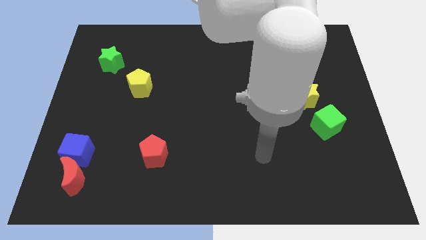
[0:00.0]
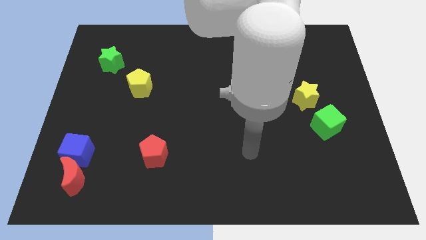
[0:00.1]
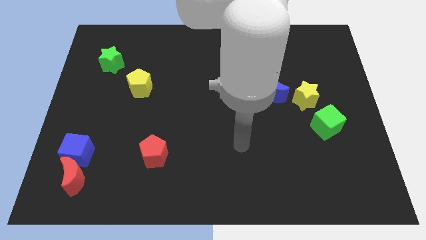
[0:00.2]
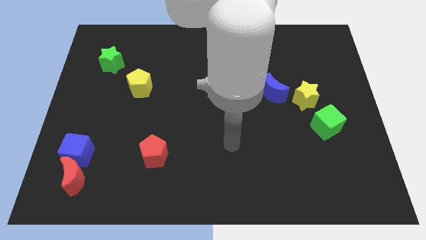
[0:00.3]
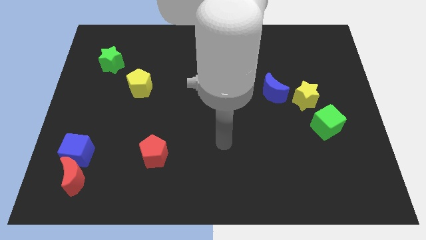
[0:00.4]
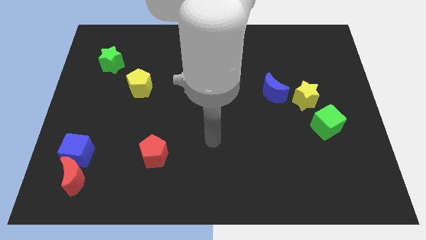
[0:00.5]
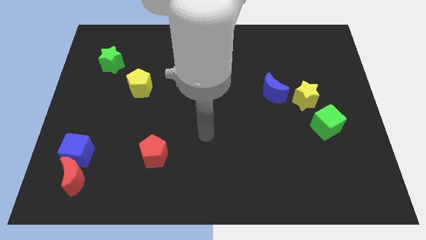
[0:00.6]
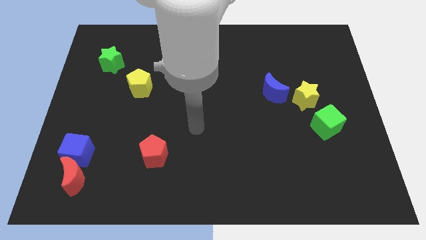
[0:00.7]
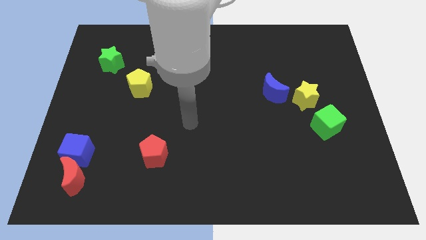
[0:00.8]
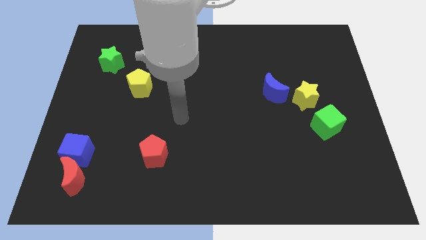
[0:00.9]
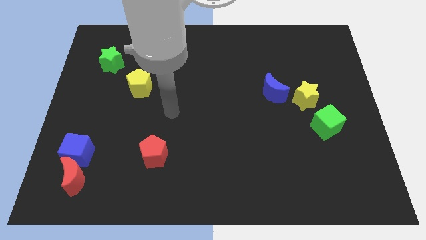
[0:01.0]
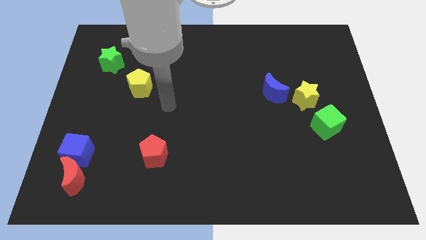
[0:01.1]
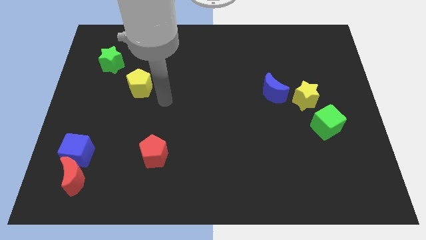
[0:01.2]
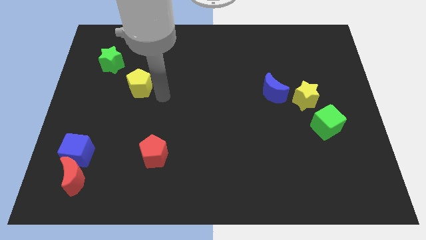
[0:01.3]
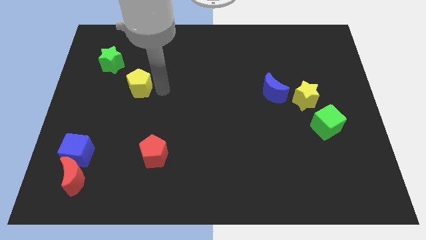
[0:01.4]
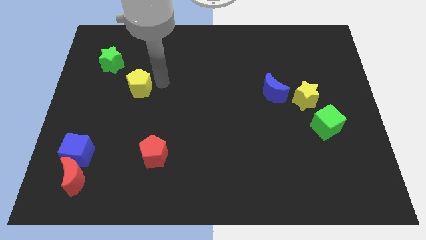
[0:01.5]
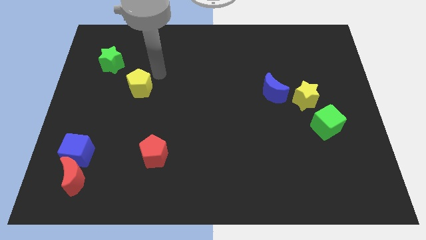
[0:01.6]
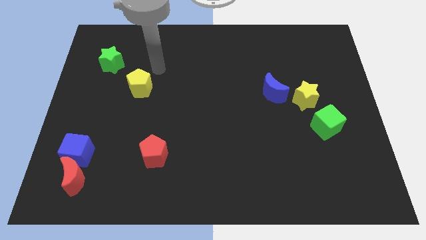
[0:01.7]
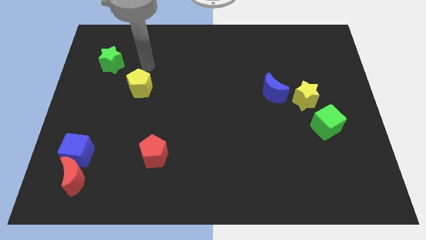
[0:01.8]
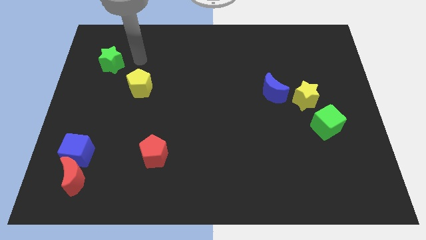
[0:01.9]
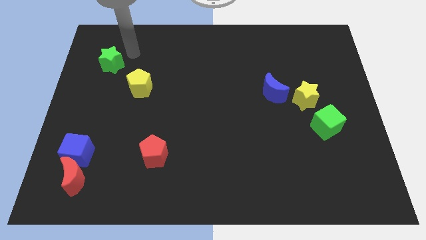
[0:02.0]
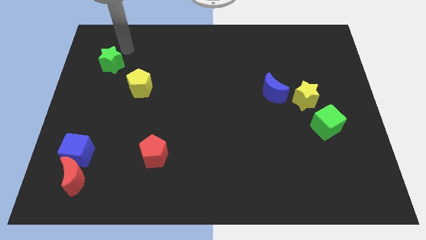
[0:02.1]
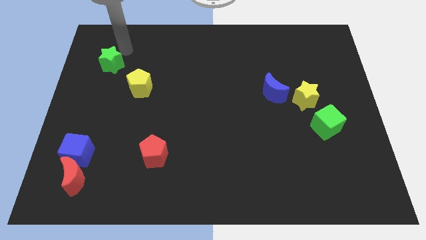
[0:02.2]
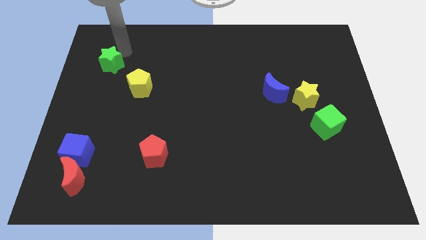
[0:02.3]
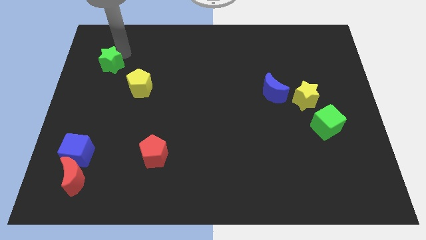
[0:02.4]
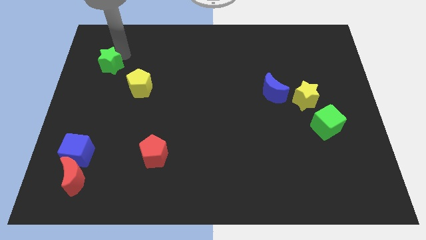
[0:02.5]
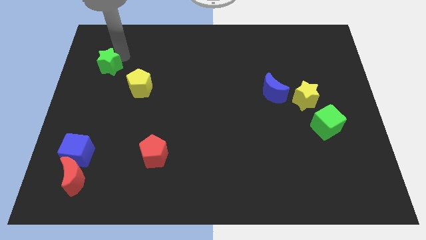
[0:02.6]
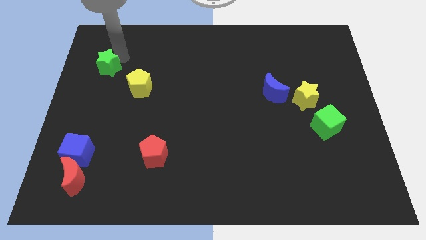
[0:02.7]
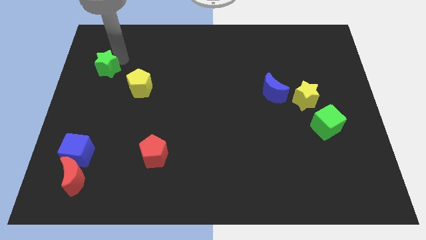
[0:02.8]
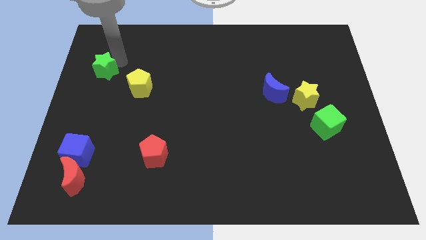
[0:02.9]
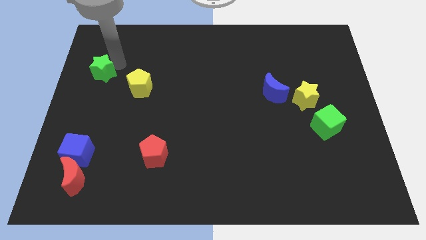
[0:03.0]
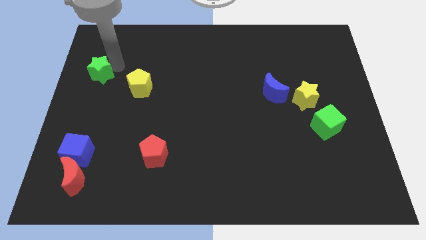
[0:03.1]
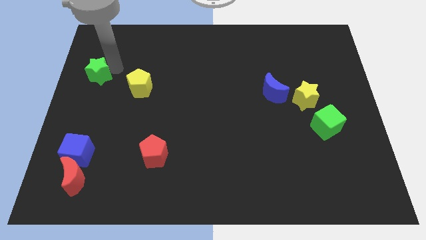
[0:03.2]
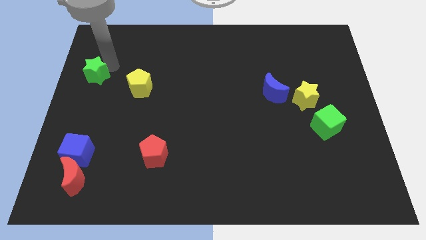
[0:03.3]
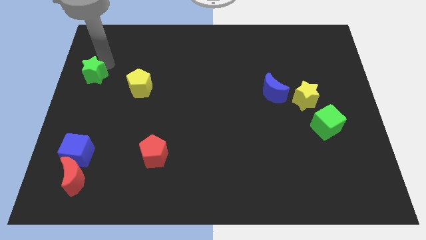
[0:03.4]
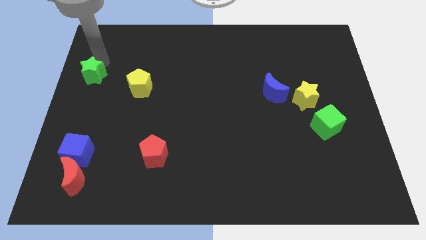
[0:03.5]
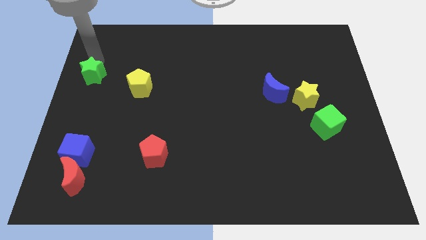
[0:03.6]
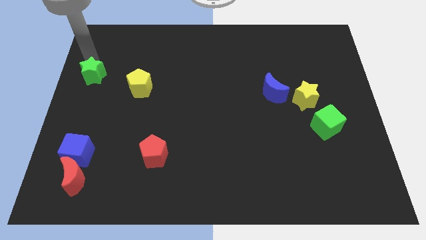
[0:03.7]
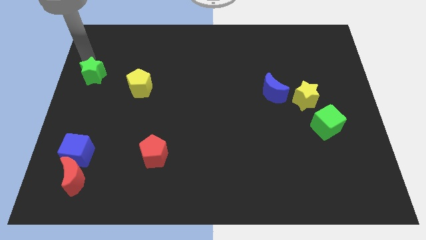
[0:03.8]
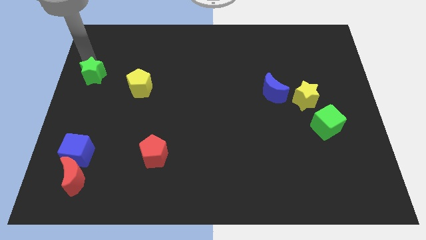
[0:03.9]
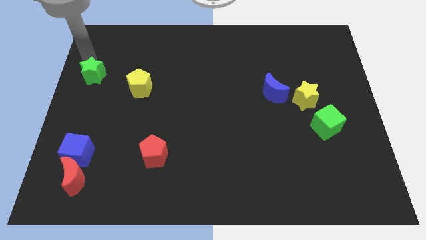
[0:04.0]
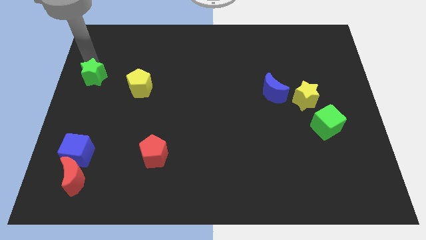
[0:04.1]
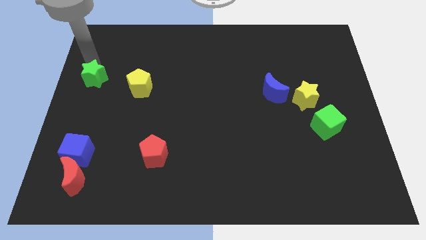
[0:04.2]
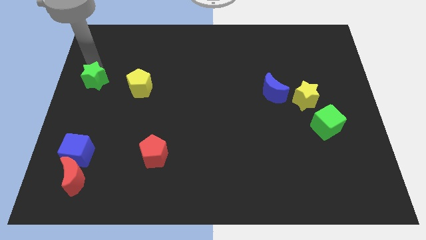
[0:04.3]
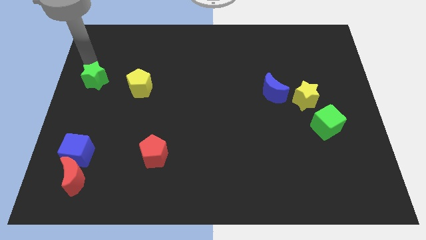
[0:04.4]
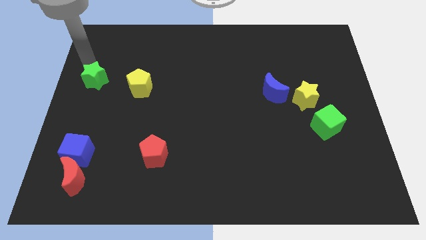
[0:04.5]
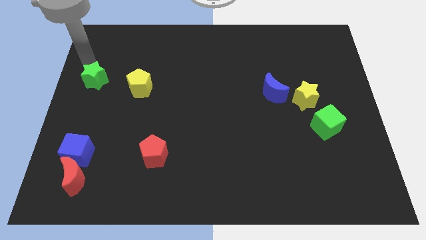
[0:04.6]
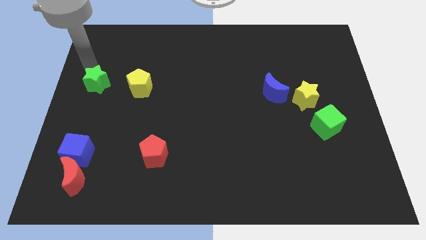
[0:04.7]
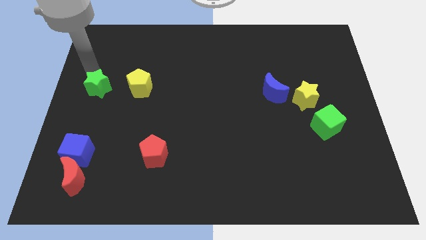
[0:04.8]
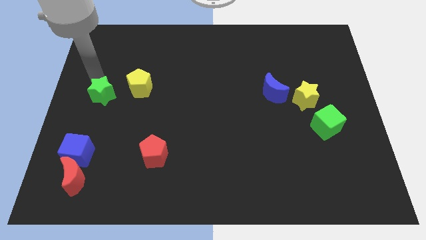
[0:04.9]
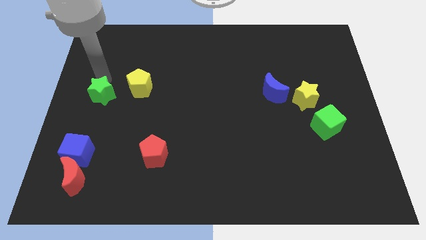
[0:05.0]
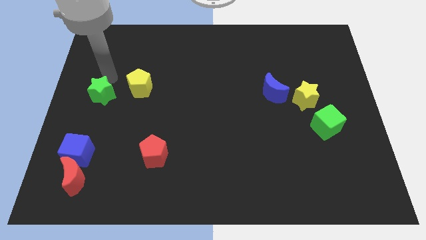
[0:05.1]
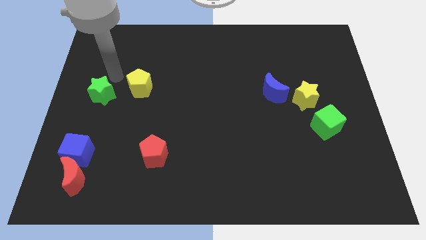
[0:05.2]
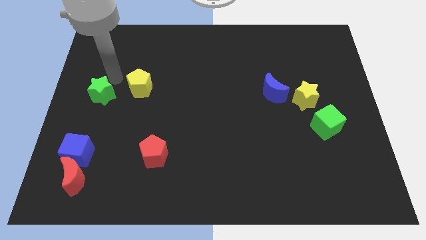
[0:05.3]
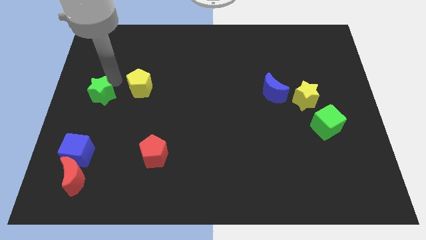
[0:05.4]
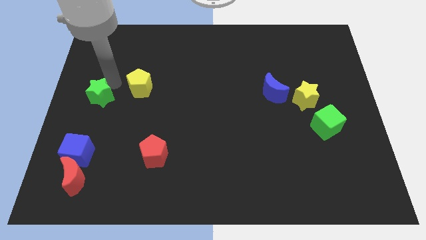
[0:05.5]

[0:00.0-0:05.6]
slide the green star to the top of the blue cube

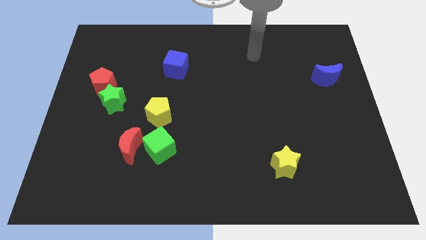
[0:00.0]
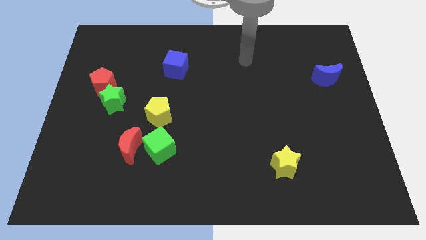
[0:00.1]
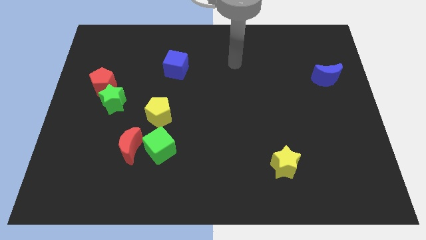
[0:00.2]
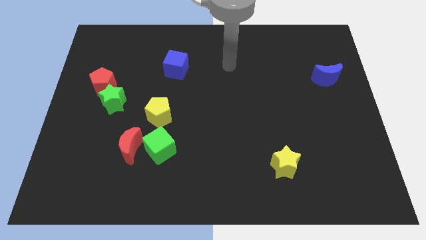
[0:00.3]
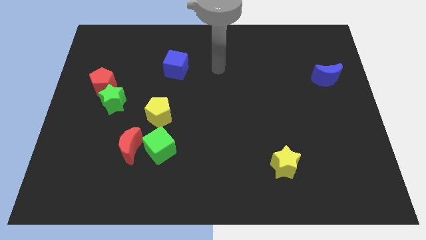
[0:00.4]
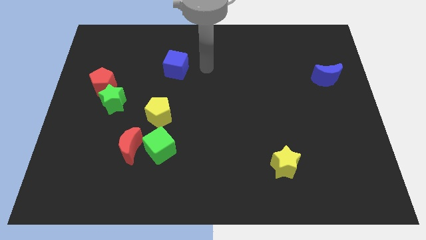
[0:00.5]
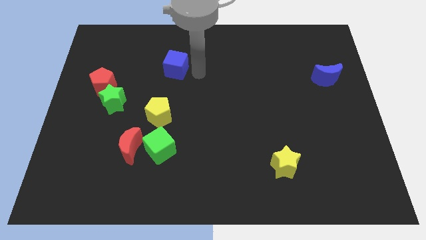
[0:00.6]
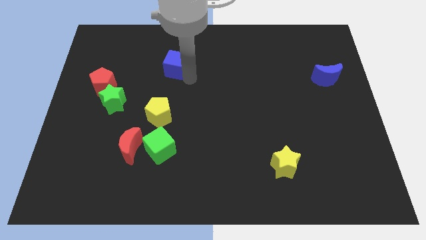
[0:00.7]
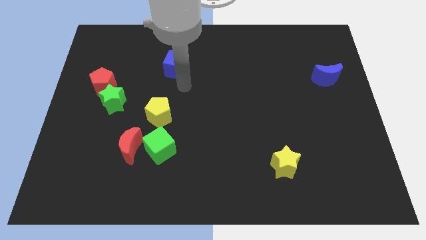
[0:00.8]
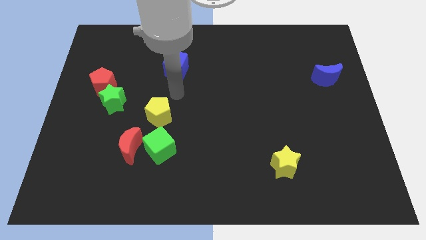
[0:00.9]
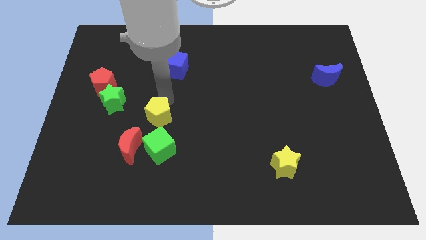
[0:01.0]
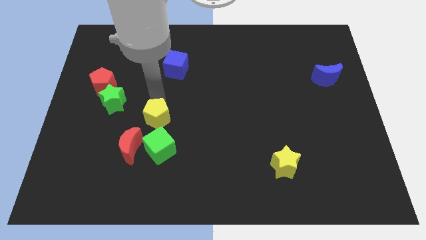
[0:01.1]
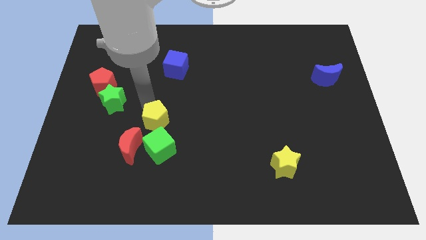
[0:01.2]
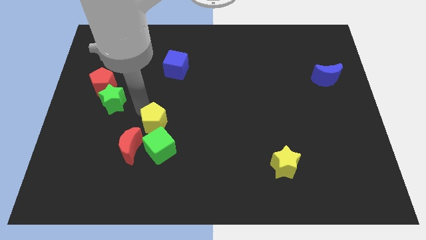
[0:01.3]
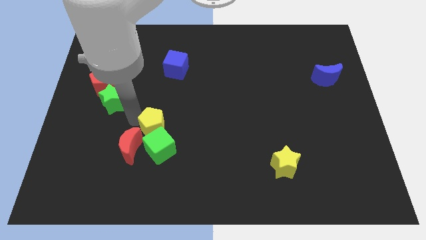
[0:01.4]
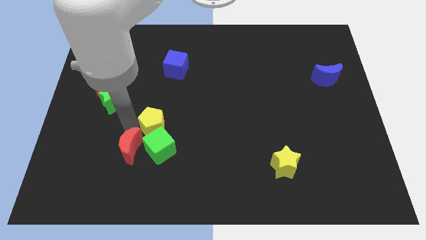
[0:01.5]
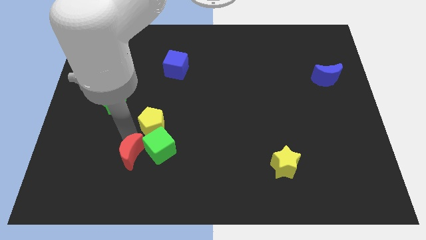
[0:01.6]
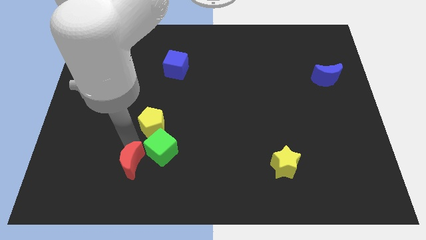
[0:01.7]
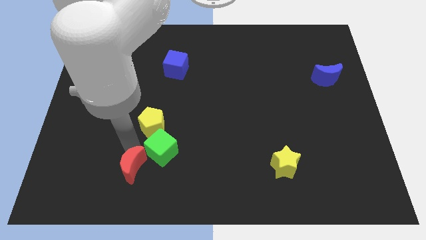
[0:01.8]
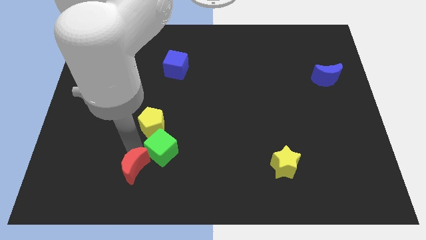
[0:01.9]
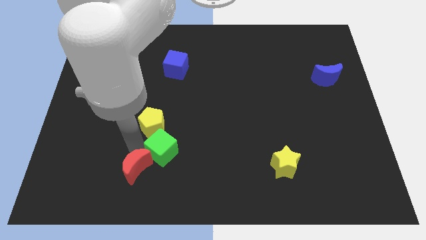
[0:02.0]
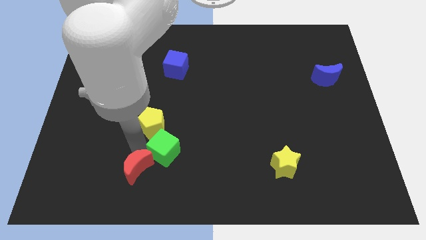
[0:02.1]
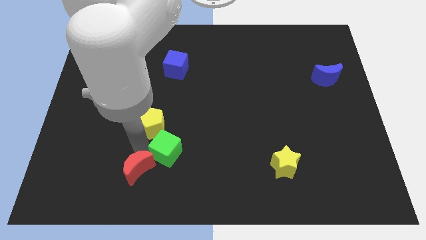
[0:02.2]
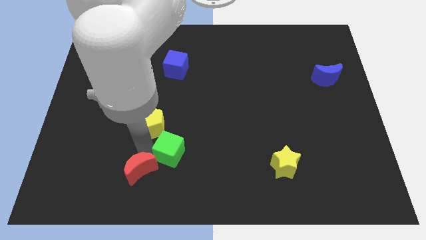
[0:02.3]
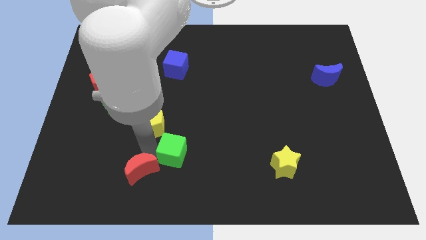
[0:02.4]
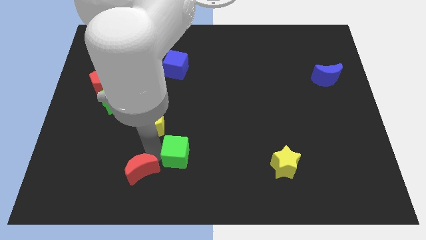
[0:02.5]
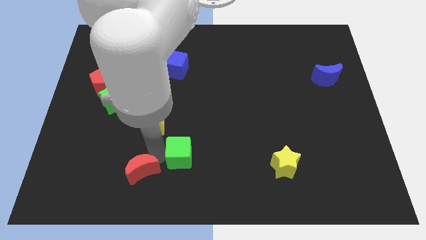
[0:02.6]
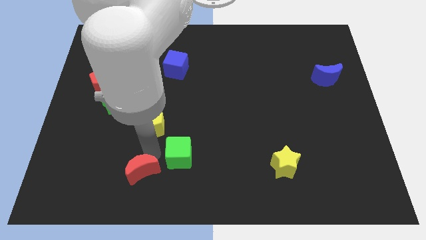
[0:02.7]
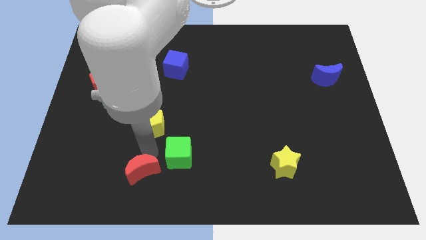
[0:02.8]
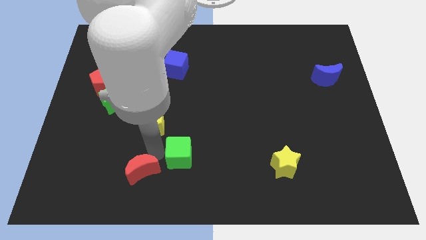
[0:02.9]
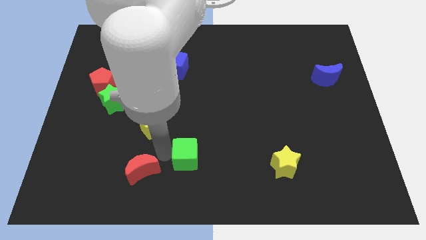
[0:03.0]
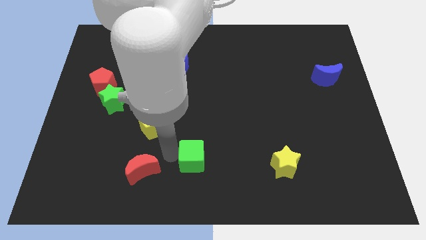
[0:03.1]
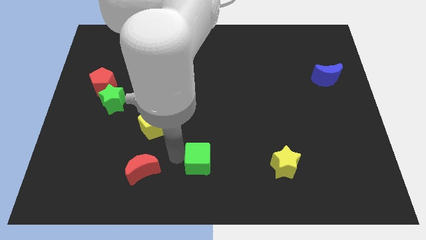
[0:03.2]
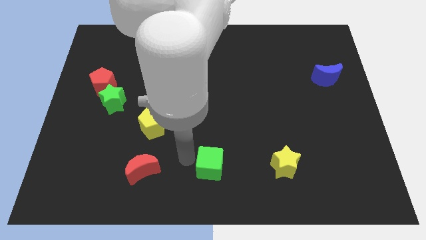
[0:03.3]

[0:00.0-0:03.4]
push the green cube to the left side of the yellow star
